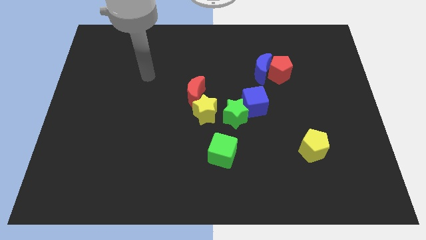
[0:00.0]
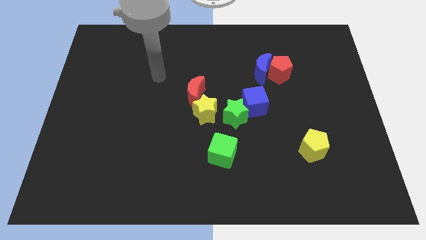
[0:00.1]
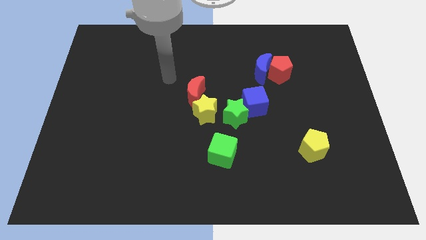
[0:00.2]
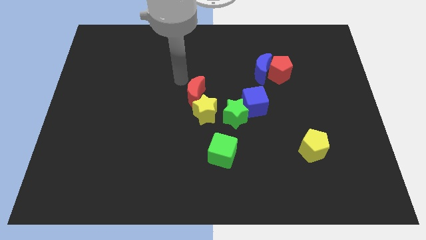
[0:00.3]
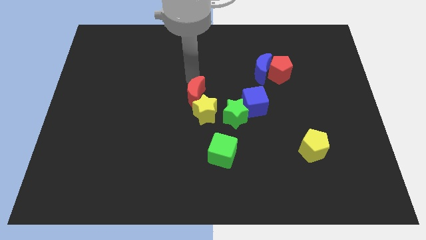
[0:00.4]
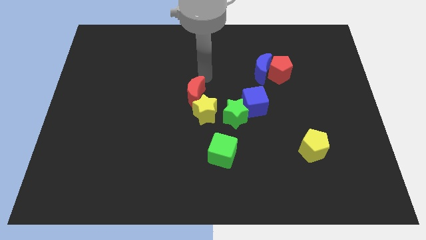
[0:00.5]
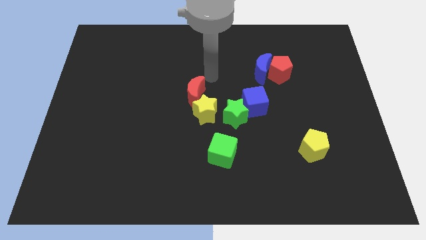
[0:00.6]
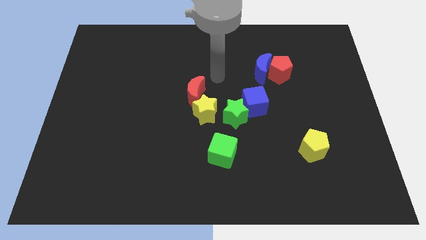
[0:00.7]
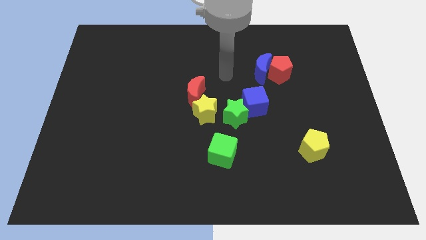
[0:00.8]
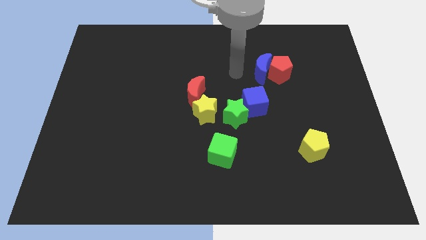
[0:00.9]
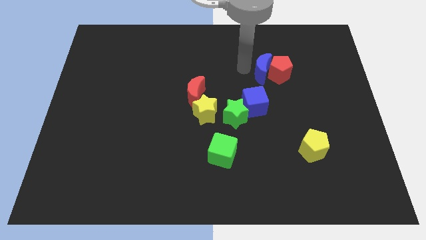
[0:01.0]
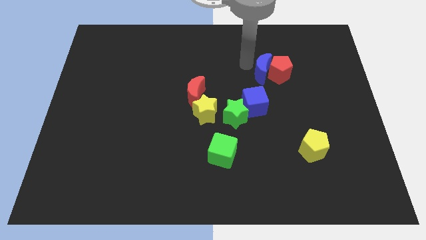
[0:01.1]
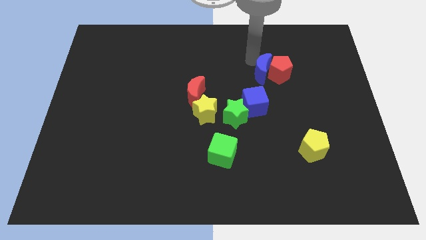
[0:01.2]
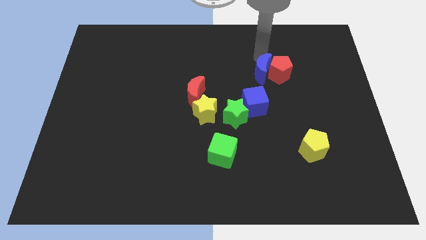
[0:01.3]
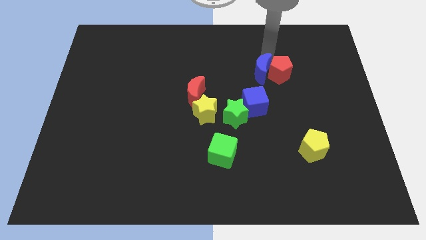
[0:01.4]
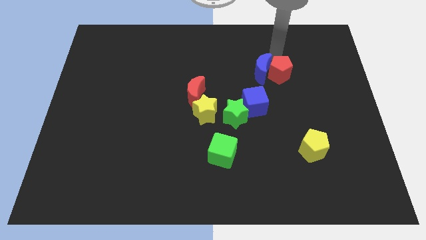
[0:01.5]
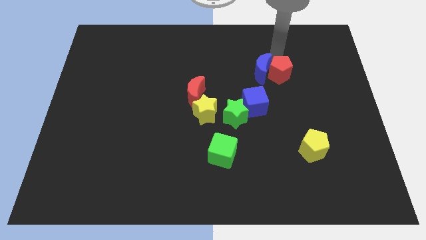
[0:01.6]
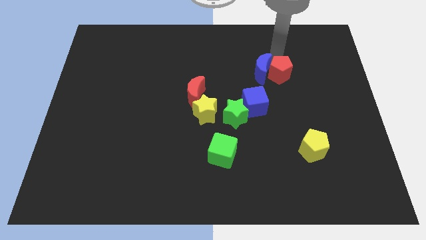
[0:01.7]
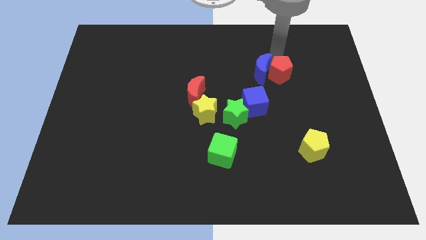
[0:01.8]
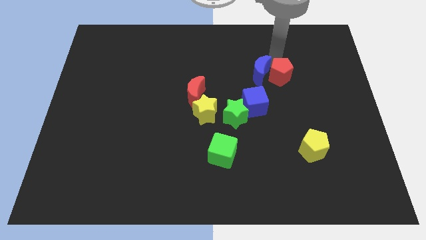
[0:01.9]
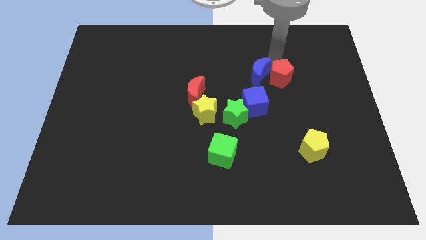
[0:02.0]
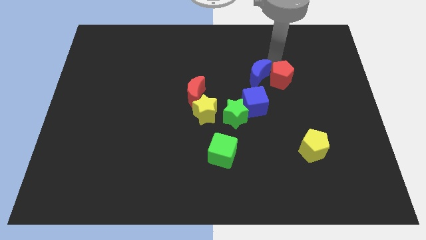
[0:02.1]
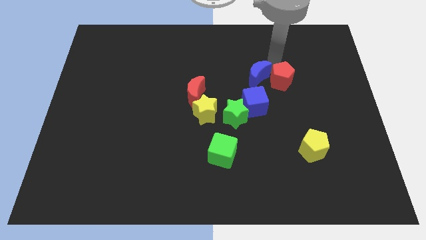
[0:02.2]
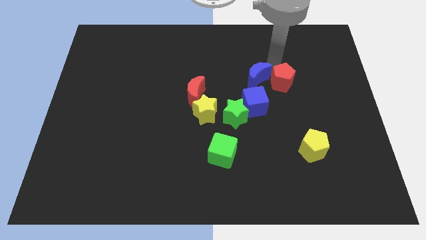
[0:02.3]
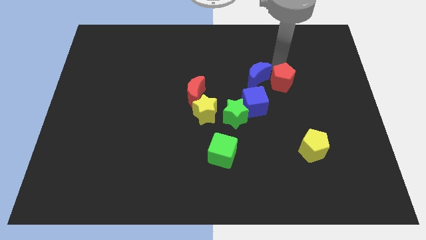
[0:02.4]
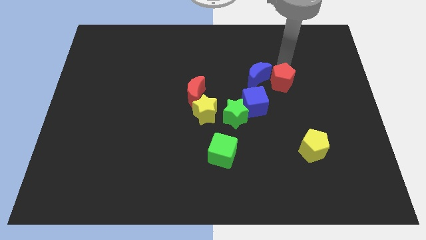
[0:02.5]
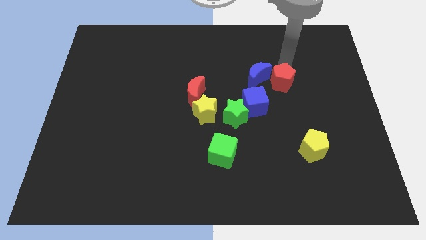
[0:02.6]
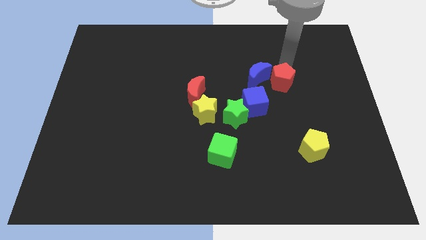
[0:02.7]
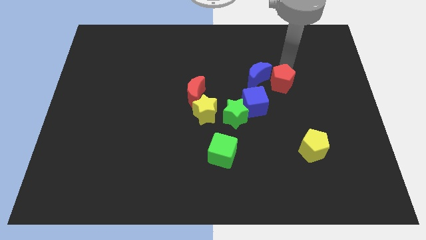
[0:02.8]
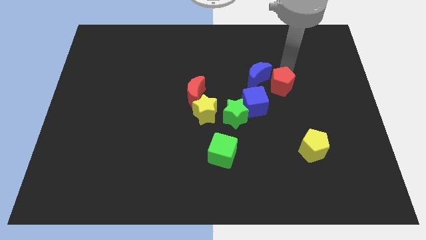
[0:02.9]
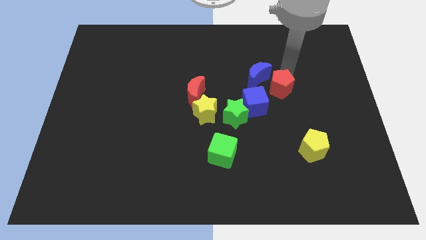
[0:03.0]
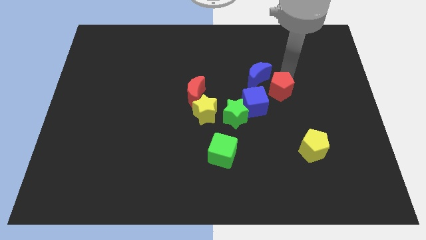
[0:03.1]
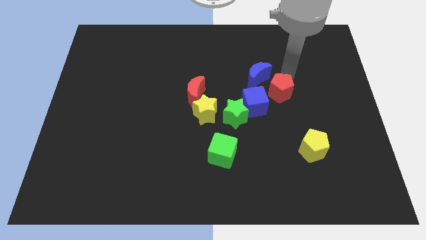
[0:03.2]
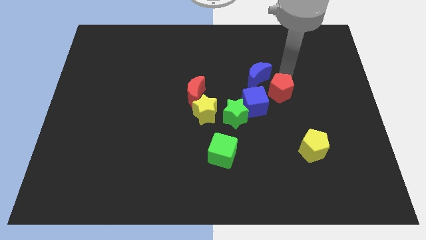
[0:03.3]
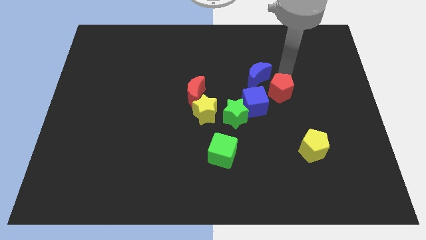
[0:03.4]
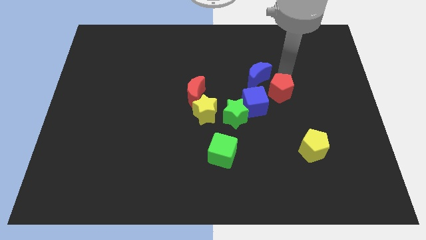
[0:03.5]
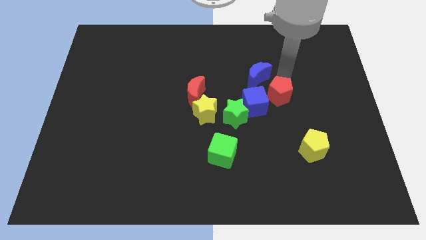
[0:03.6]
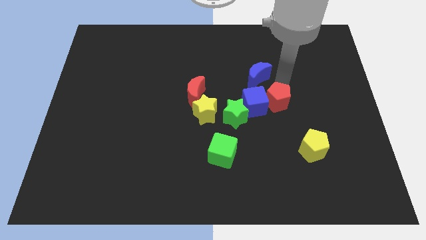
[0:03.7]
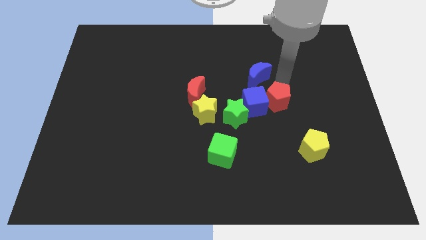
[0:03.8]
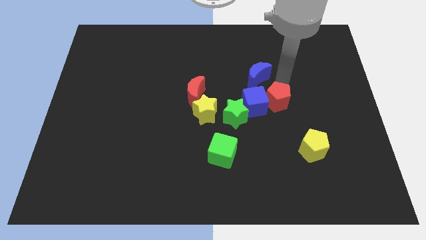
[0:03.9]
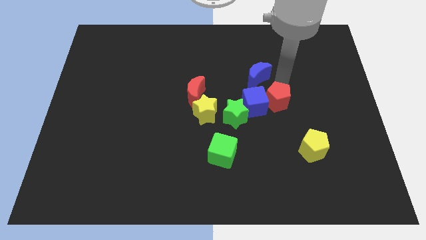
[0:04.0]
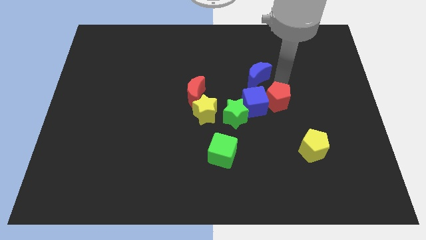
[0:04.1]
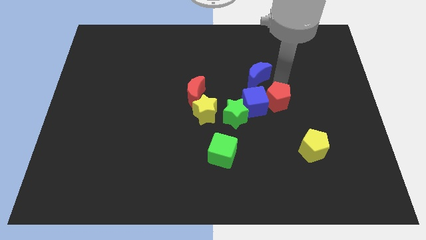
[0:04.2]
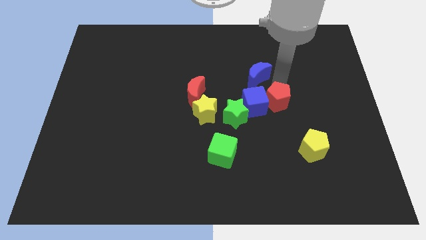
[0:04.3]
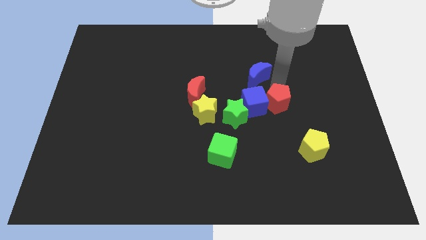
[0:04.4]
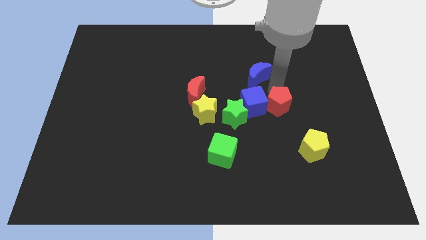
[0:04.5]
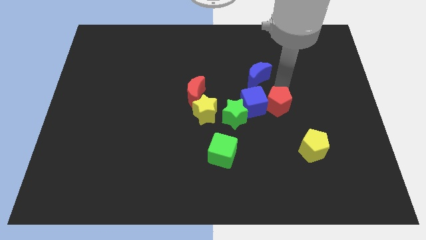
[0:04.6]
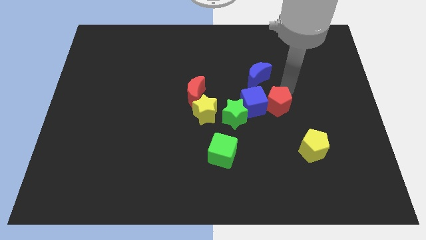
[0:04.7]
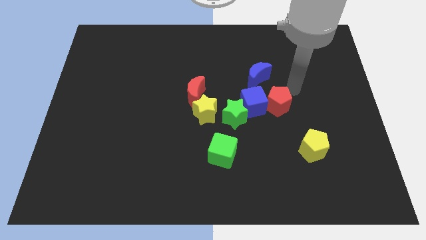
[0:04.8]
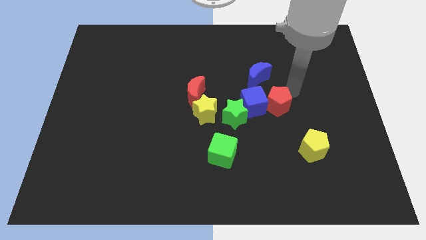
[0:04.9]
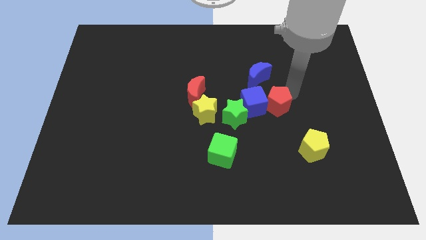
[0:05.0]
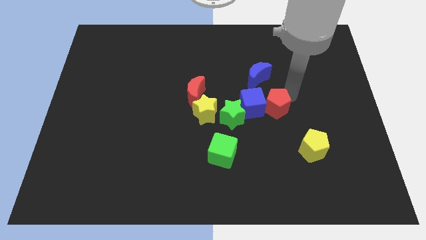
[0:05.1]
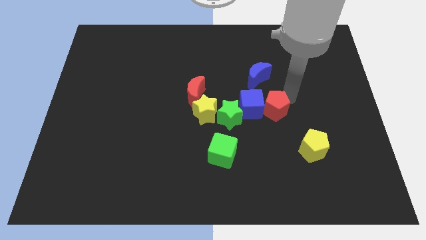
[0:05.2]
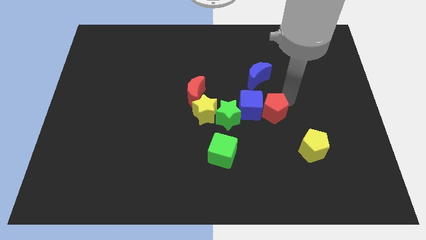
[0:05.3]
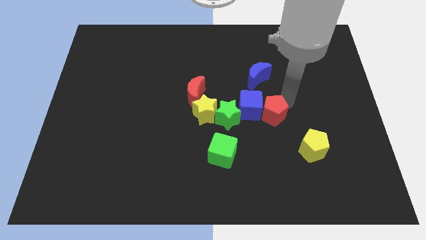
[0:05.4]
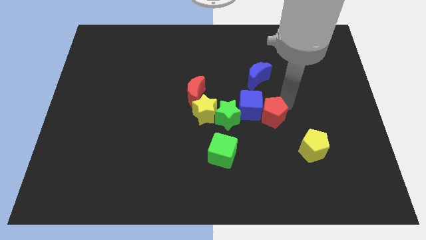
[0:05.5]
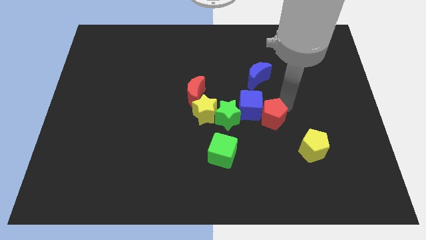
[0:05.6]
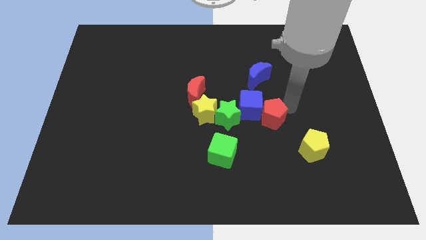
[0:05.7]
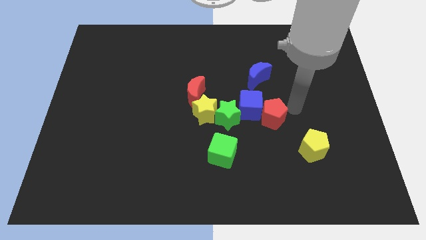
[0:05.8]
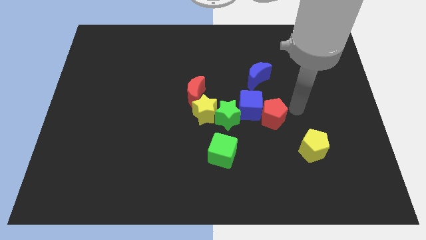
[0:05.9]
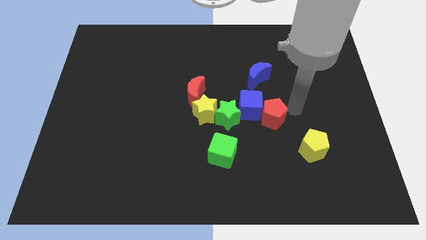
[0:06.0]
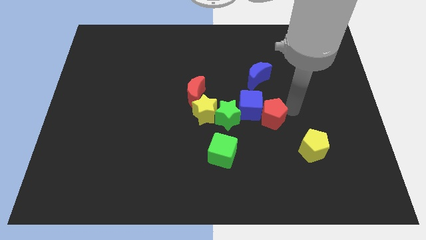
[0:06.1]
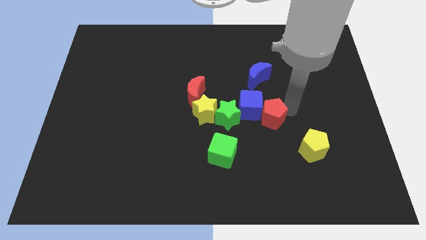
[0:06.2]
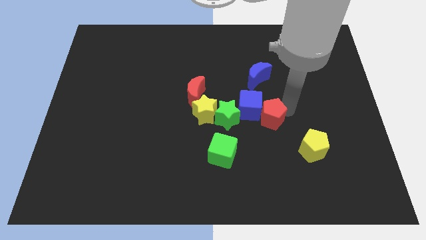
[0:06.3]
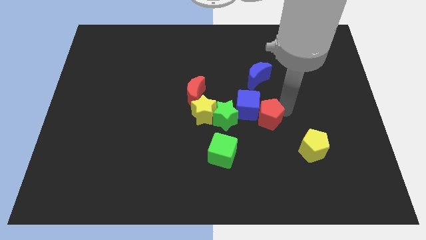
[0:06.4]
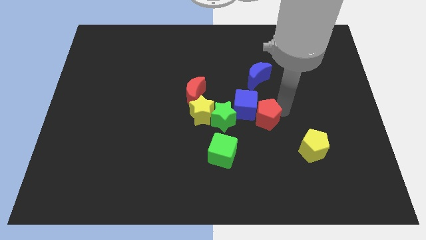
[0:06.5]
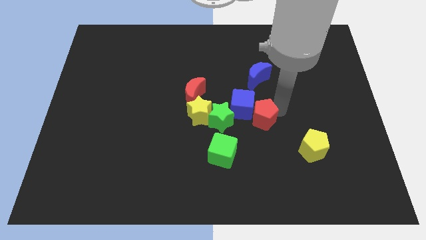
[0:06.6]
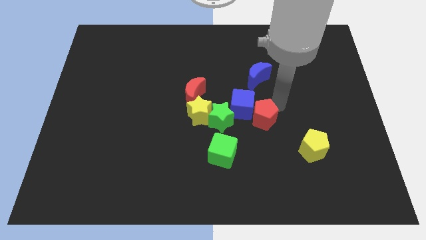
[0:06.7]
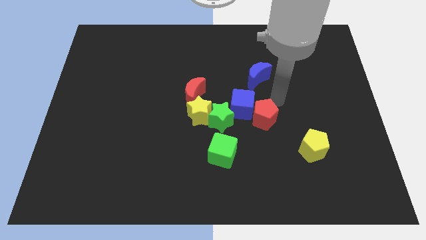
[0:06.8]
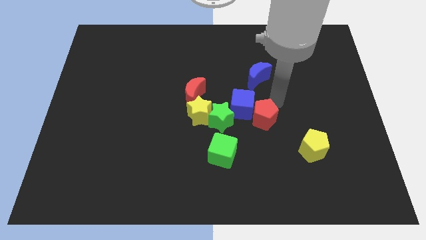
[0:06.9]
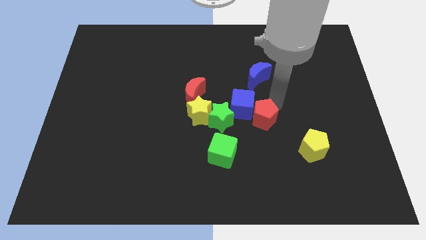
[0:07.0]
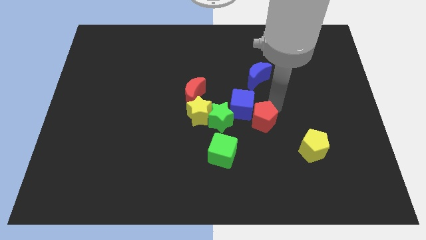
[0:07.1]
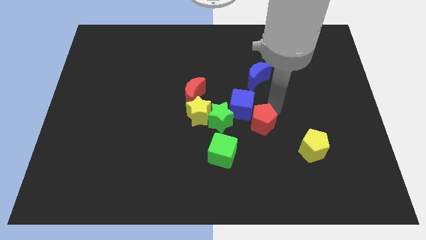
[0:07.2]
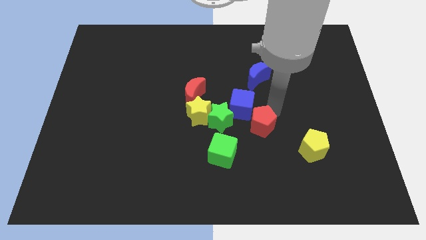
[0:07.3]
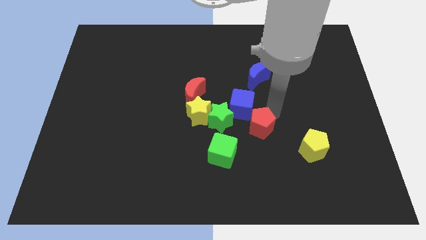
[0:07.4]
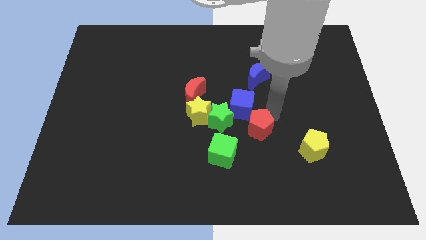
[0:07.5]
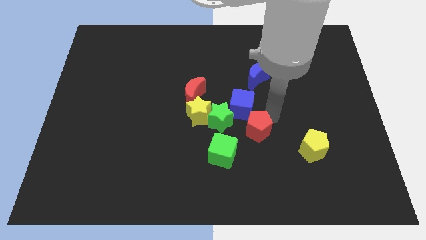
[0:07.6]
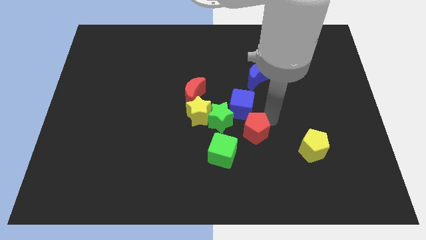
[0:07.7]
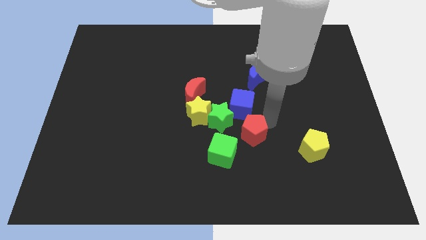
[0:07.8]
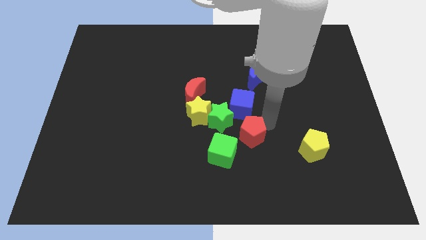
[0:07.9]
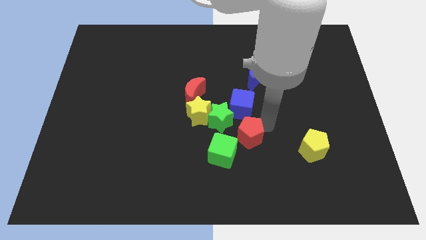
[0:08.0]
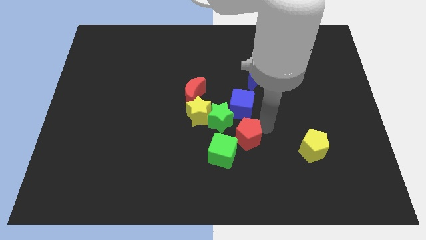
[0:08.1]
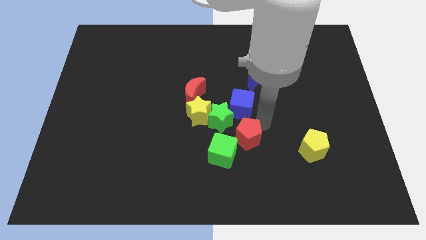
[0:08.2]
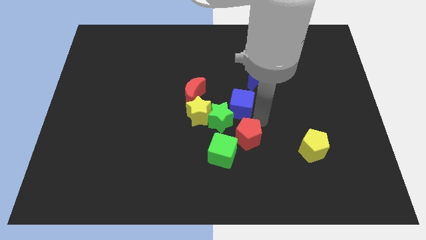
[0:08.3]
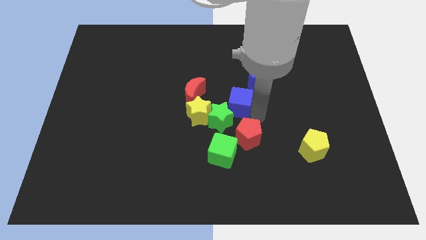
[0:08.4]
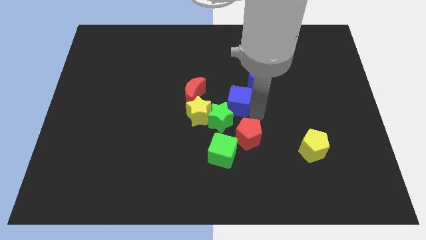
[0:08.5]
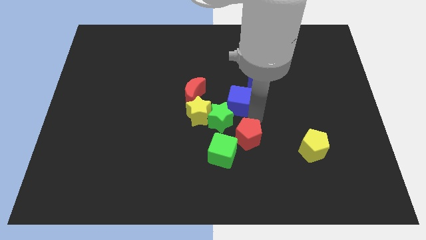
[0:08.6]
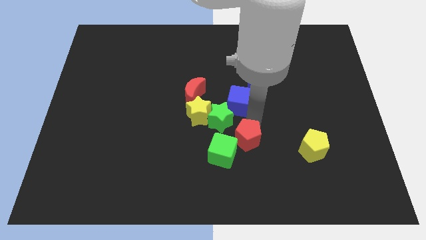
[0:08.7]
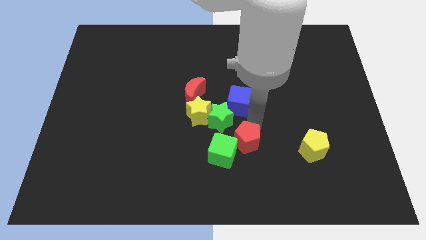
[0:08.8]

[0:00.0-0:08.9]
move the red pentagon next to the green cube
